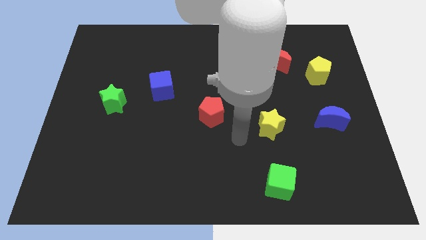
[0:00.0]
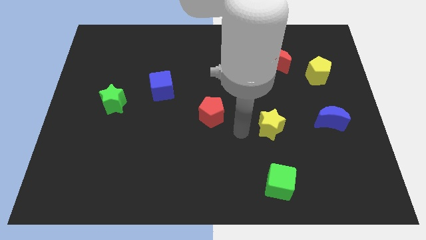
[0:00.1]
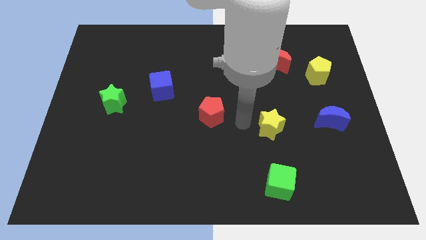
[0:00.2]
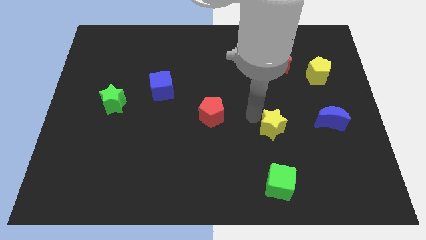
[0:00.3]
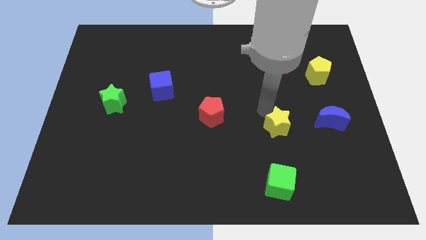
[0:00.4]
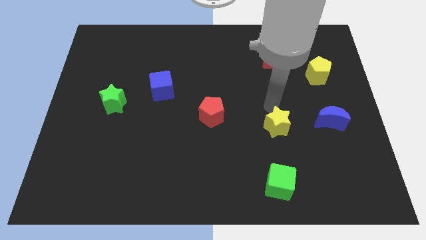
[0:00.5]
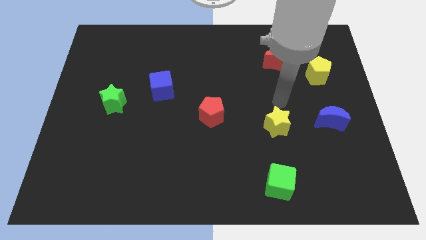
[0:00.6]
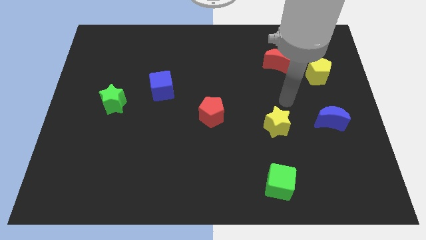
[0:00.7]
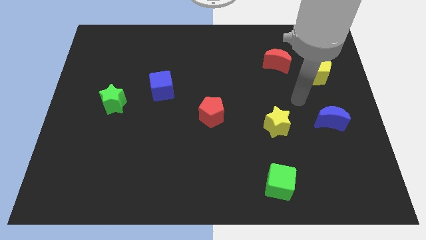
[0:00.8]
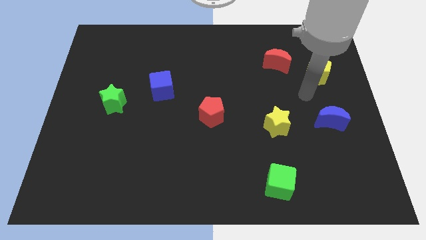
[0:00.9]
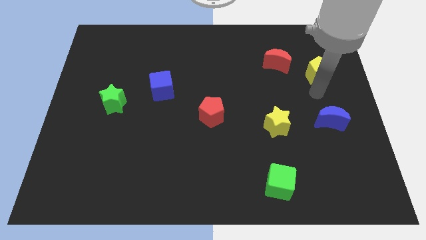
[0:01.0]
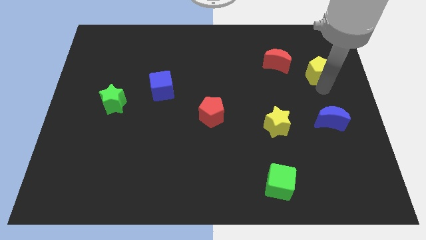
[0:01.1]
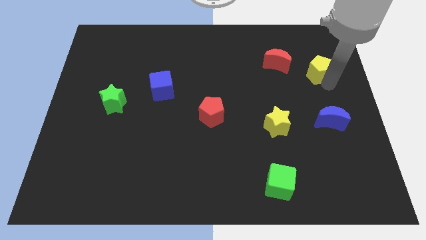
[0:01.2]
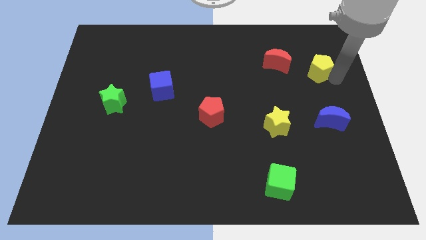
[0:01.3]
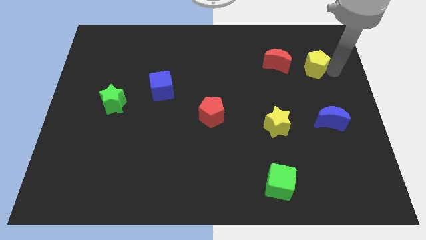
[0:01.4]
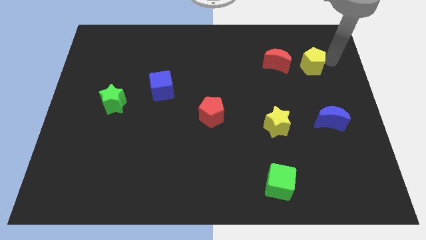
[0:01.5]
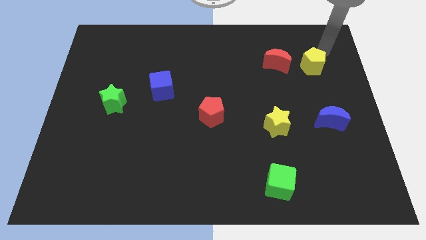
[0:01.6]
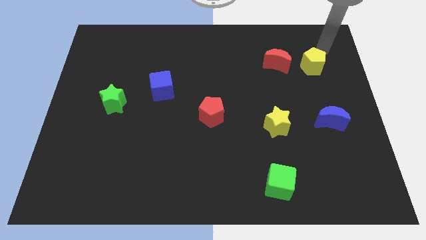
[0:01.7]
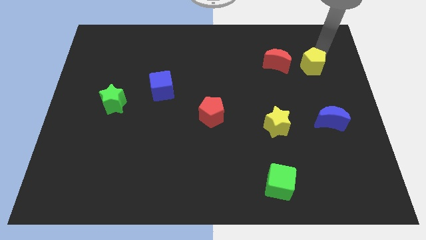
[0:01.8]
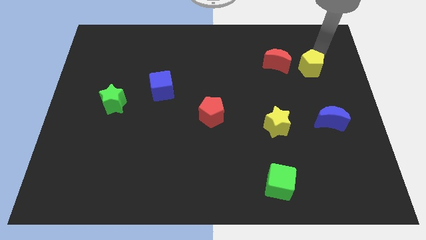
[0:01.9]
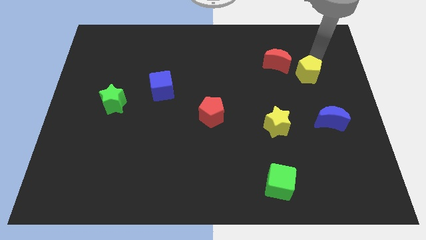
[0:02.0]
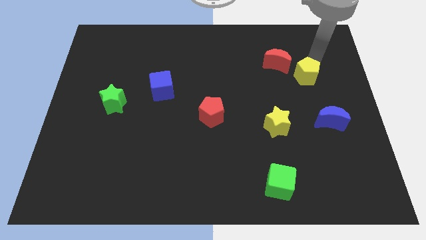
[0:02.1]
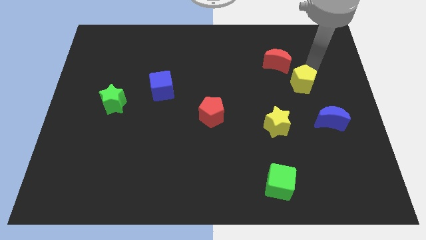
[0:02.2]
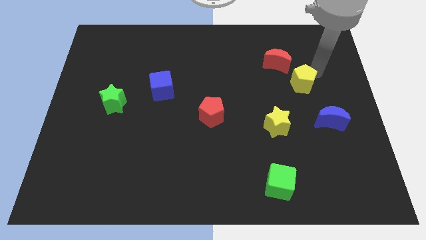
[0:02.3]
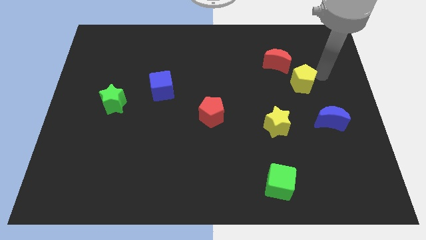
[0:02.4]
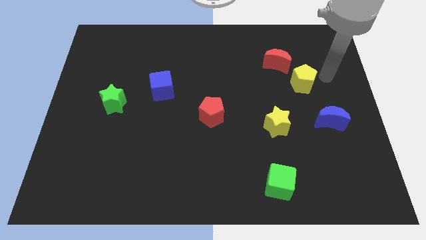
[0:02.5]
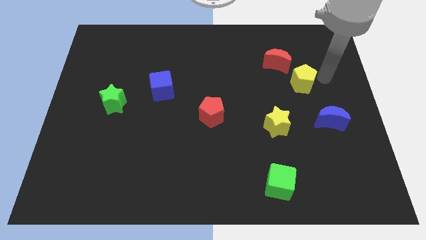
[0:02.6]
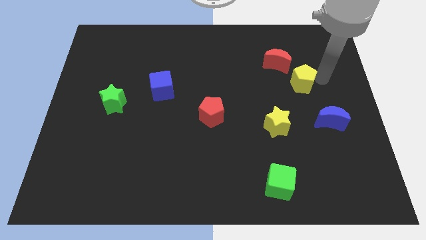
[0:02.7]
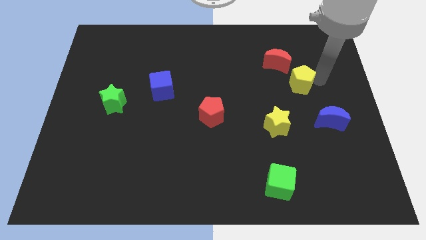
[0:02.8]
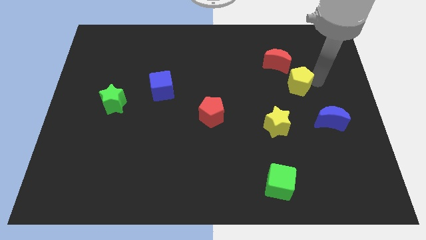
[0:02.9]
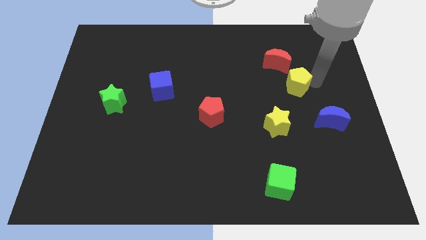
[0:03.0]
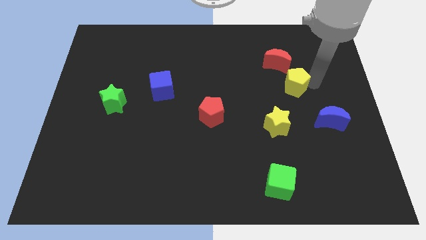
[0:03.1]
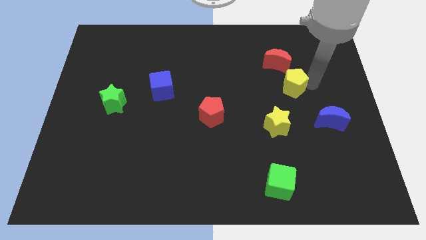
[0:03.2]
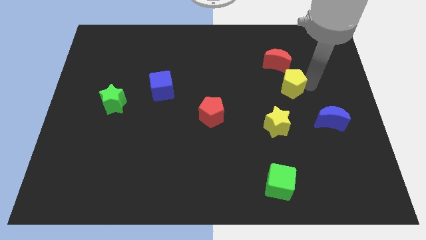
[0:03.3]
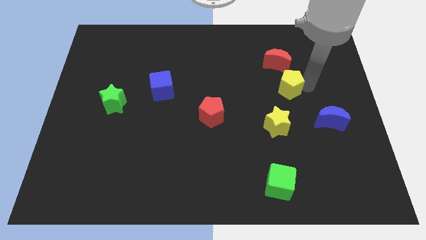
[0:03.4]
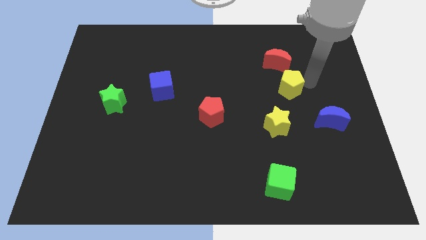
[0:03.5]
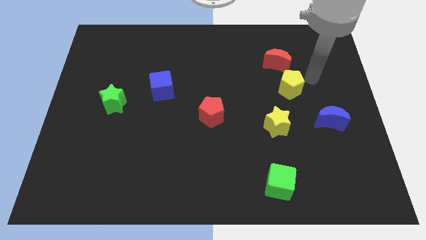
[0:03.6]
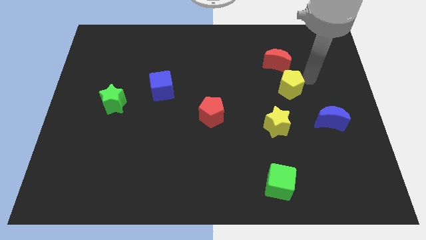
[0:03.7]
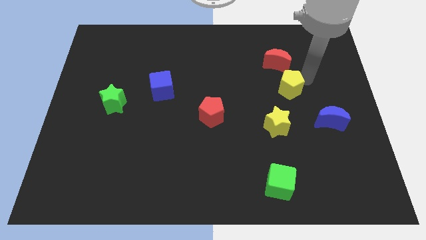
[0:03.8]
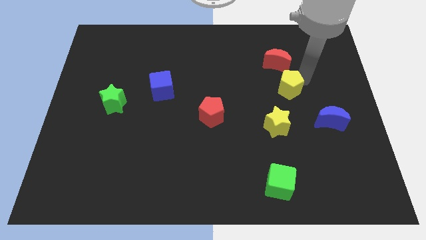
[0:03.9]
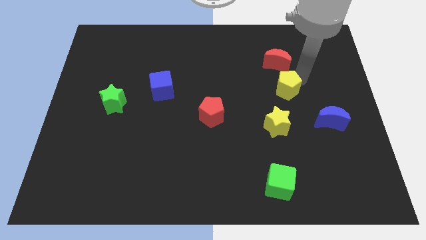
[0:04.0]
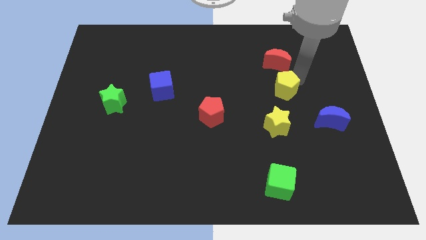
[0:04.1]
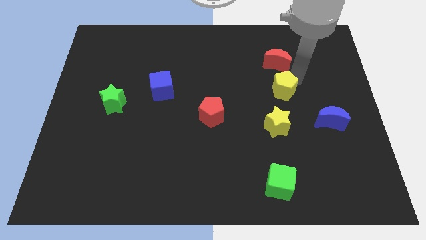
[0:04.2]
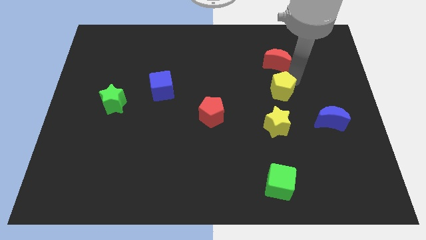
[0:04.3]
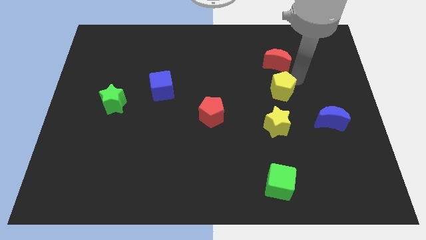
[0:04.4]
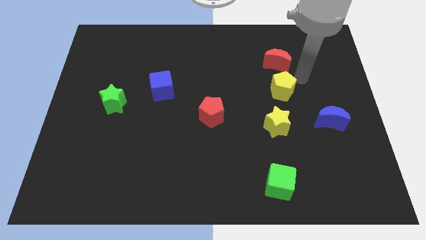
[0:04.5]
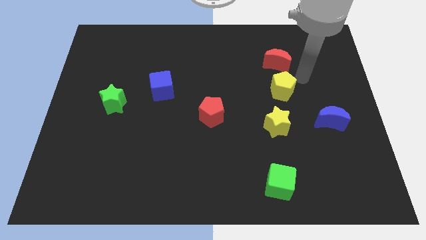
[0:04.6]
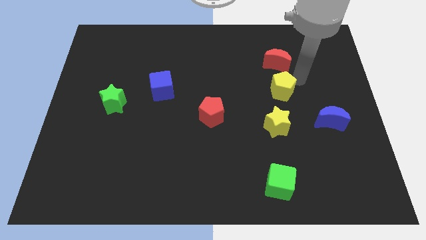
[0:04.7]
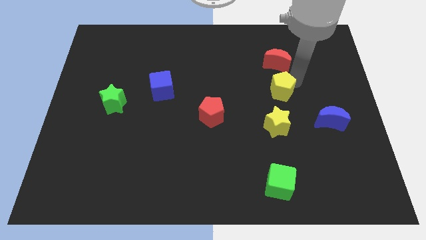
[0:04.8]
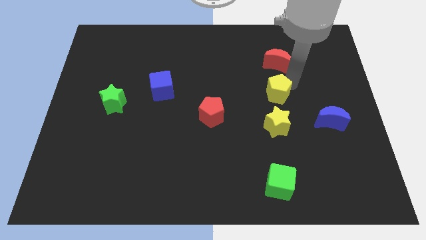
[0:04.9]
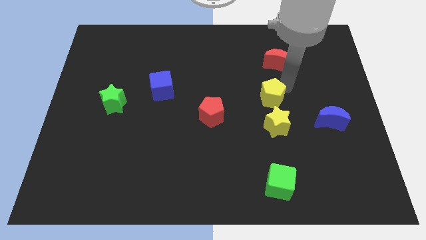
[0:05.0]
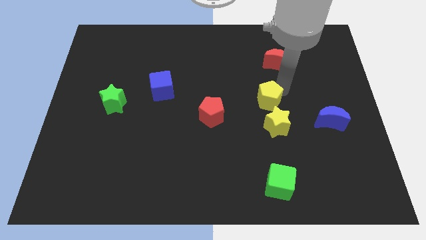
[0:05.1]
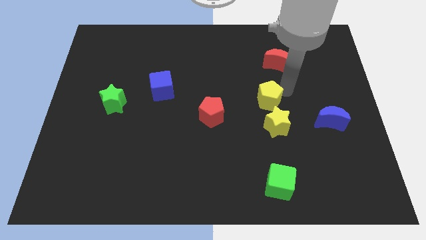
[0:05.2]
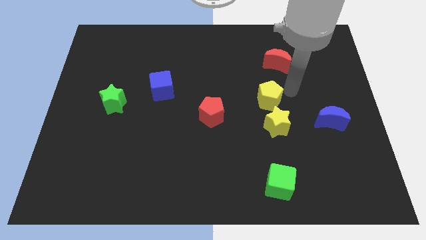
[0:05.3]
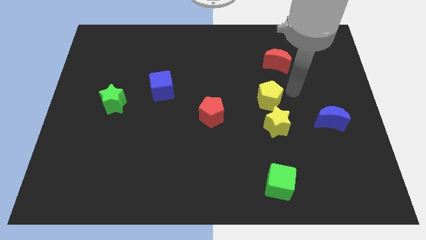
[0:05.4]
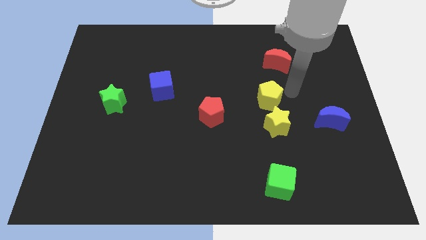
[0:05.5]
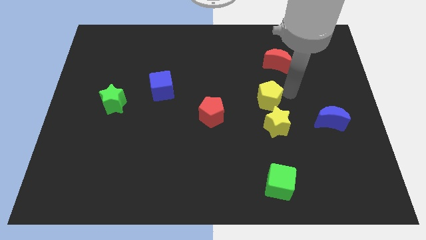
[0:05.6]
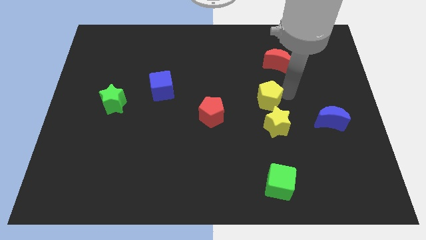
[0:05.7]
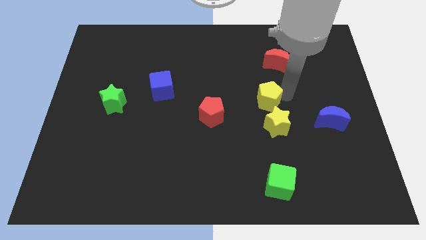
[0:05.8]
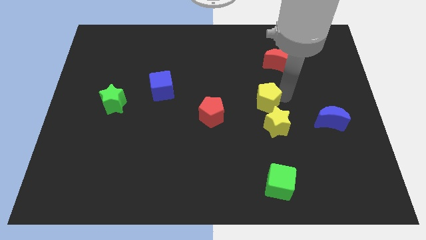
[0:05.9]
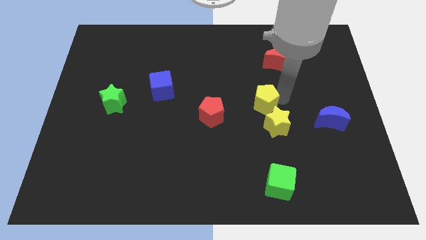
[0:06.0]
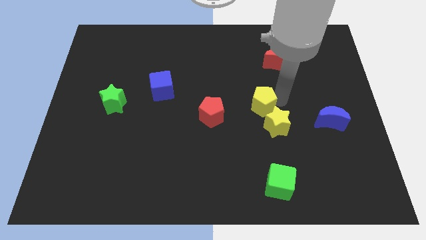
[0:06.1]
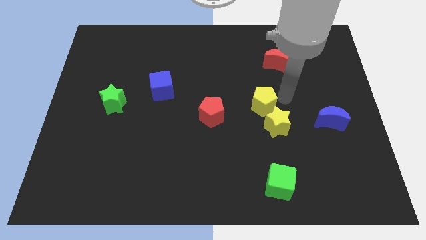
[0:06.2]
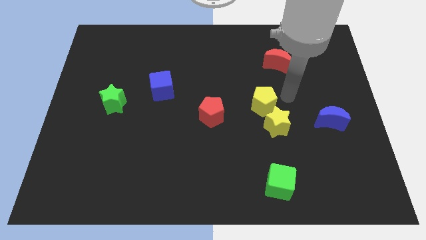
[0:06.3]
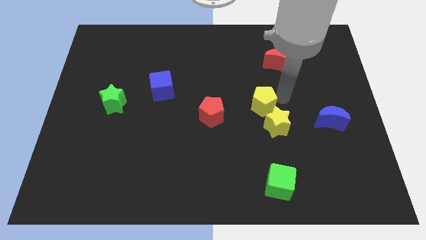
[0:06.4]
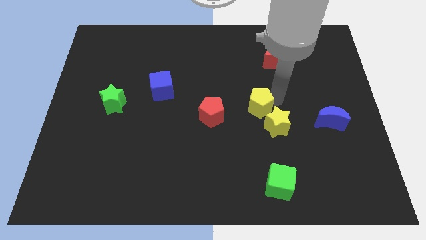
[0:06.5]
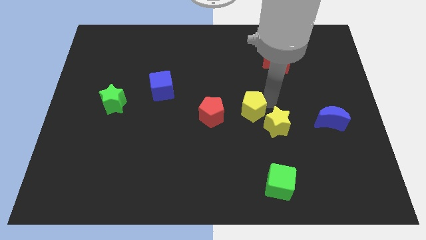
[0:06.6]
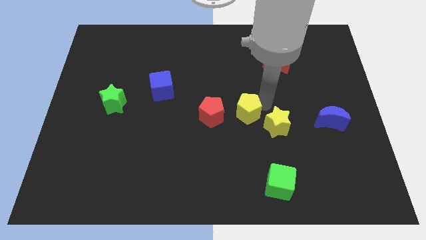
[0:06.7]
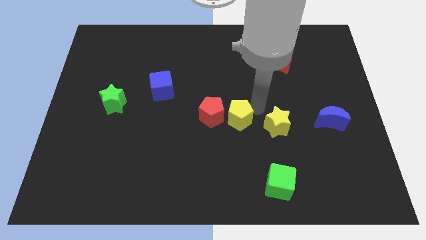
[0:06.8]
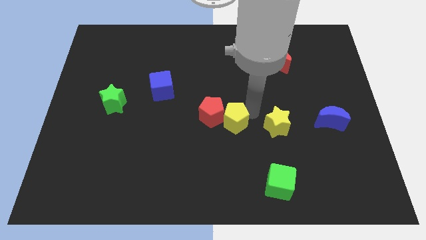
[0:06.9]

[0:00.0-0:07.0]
push the yellow pentagon towards the red pentagon
